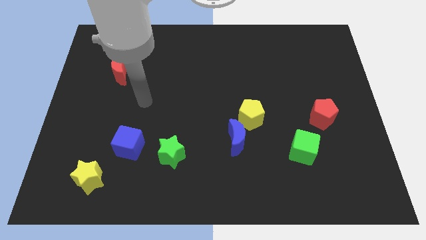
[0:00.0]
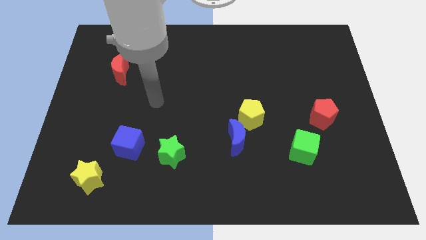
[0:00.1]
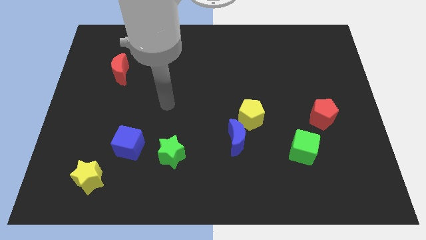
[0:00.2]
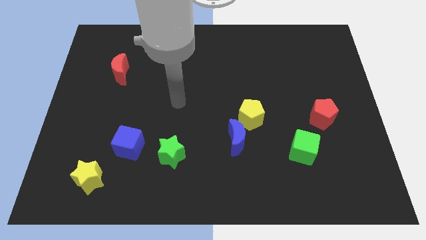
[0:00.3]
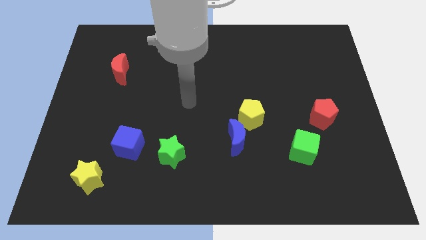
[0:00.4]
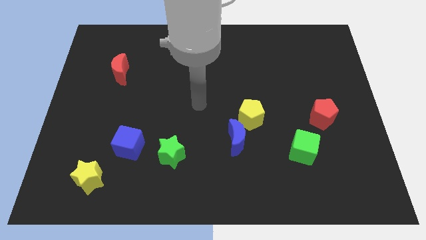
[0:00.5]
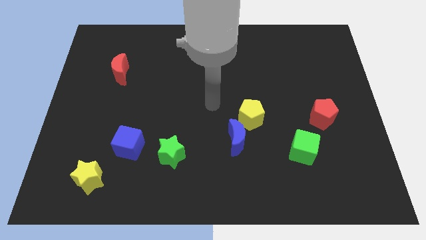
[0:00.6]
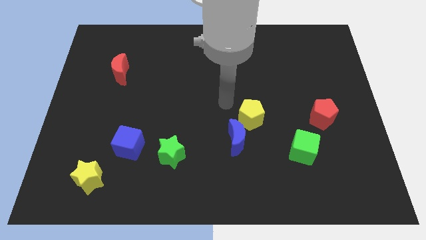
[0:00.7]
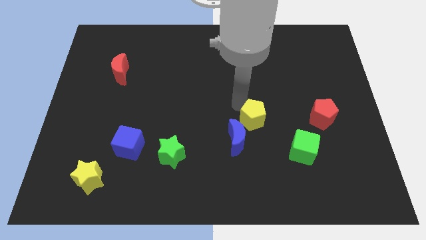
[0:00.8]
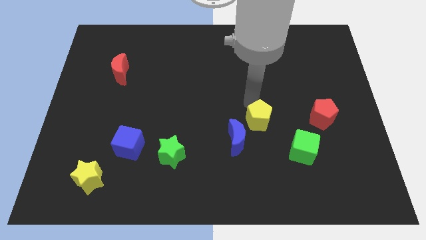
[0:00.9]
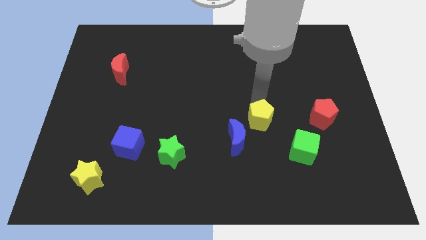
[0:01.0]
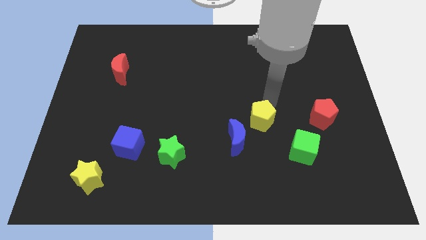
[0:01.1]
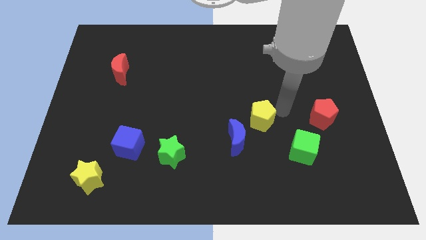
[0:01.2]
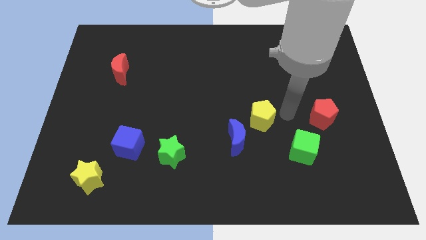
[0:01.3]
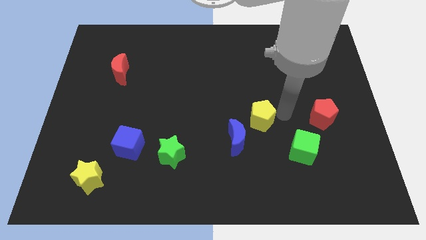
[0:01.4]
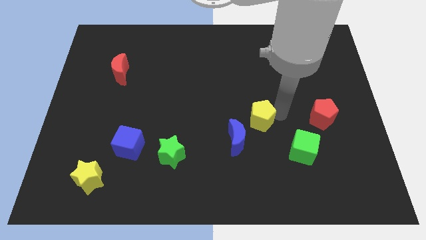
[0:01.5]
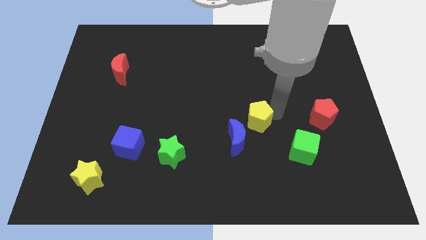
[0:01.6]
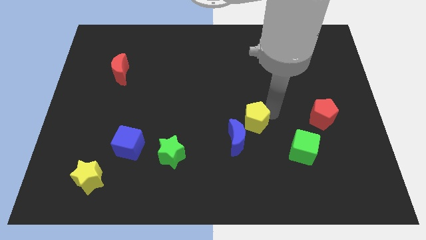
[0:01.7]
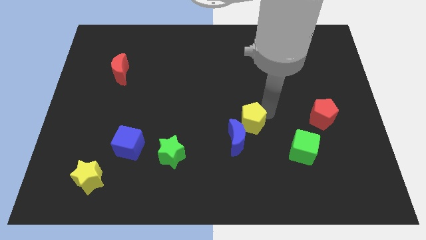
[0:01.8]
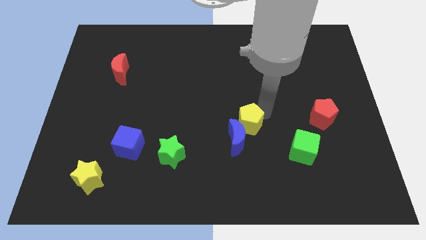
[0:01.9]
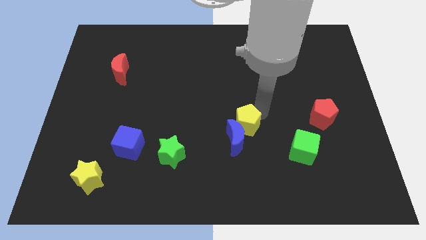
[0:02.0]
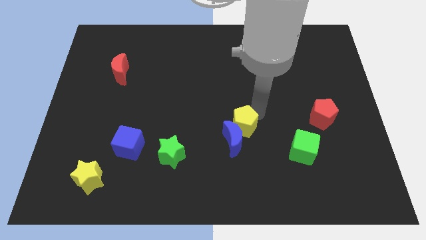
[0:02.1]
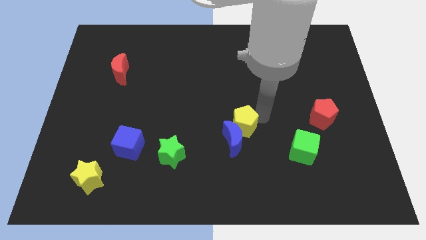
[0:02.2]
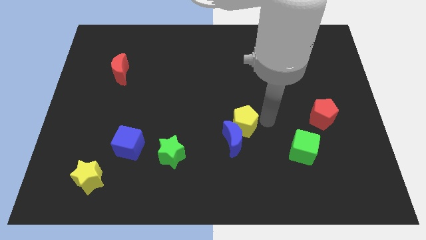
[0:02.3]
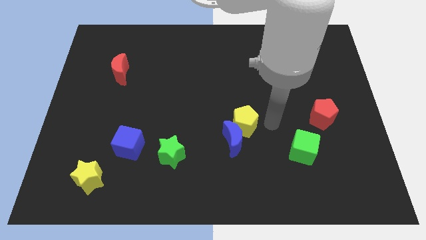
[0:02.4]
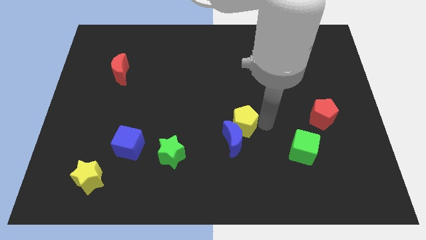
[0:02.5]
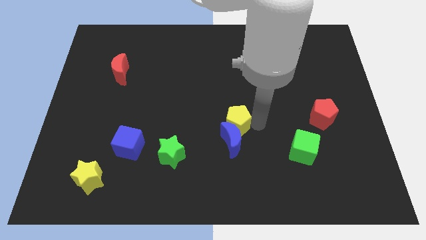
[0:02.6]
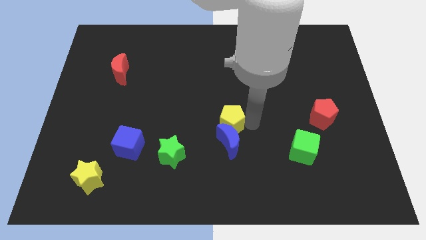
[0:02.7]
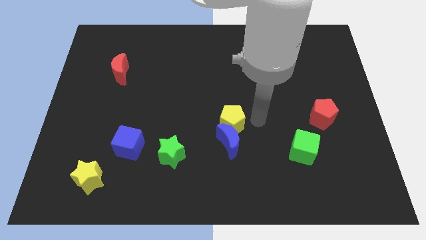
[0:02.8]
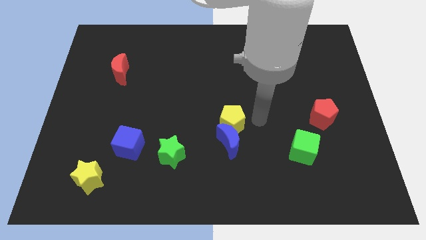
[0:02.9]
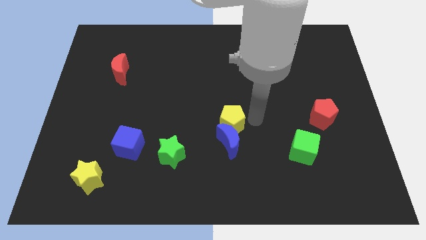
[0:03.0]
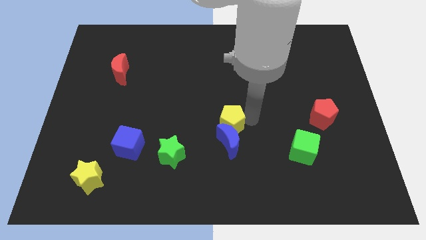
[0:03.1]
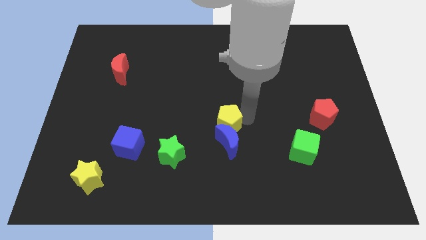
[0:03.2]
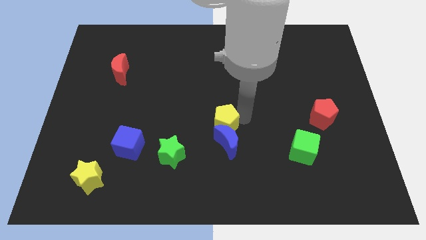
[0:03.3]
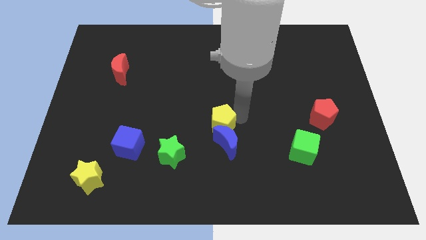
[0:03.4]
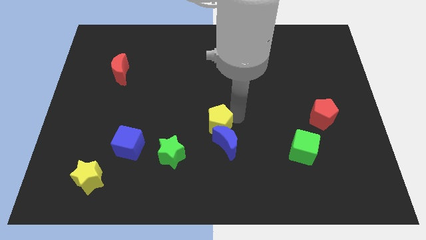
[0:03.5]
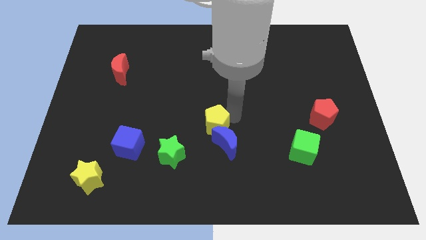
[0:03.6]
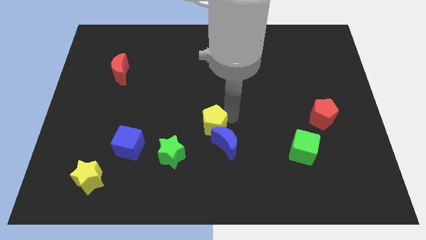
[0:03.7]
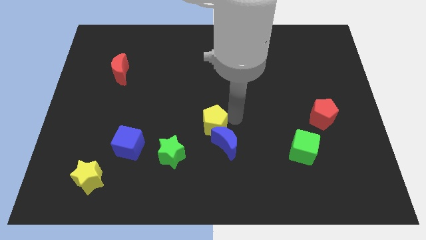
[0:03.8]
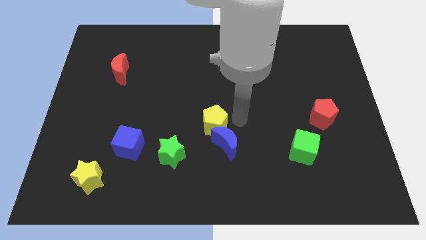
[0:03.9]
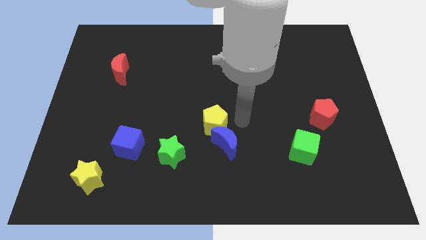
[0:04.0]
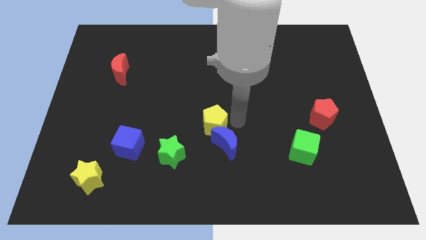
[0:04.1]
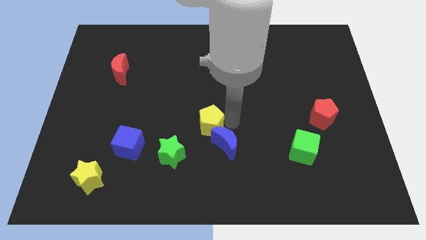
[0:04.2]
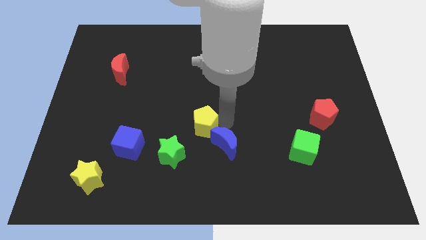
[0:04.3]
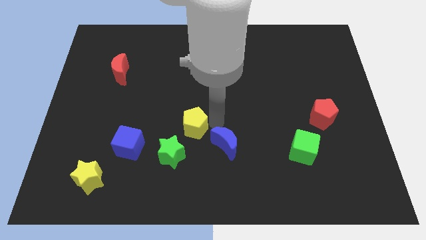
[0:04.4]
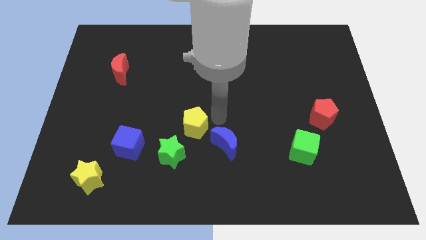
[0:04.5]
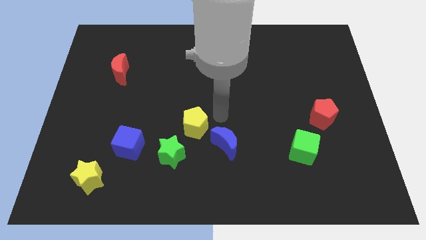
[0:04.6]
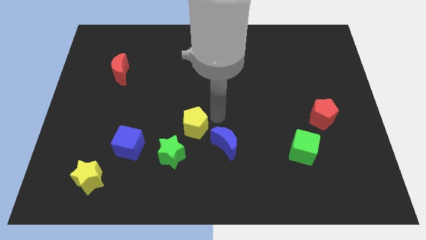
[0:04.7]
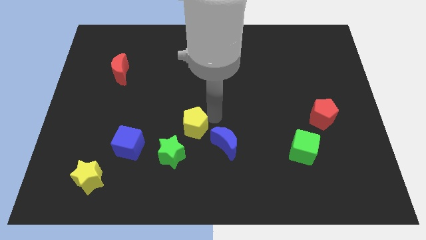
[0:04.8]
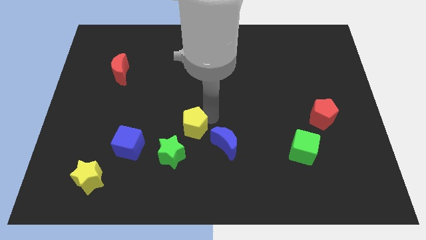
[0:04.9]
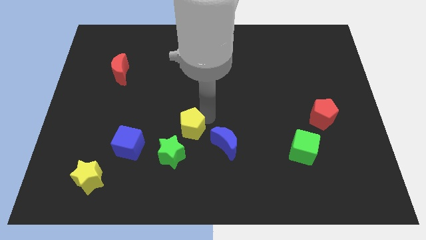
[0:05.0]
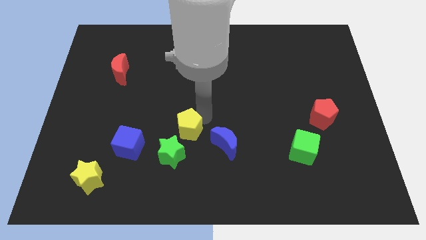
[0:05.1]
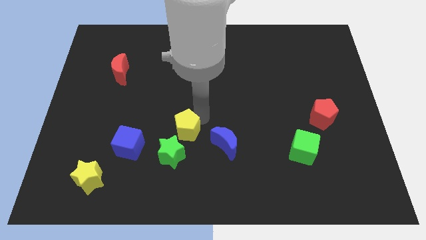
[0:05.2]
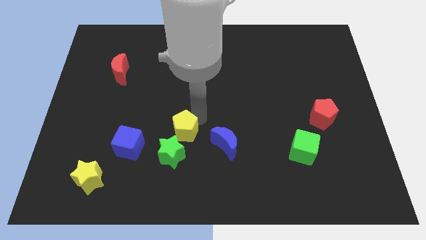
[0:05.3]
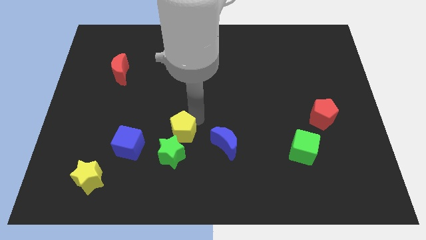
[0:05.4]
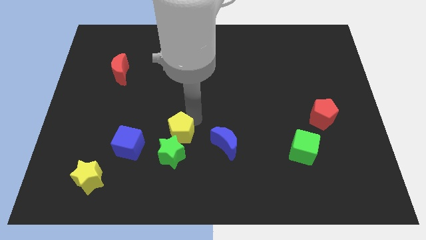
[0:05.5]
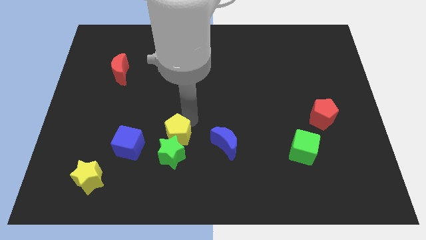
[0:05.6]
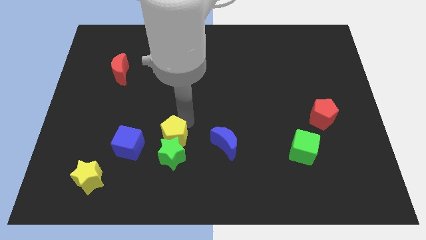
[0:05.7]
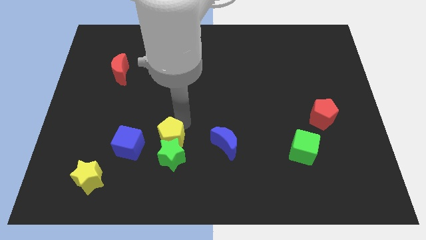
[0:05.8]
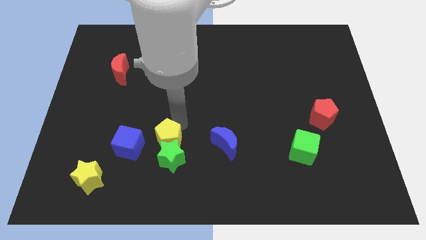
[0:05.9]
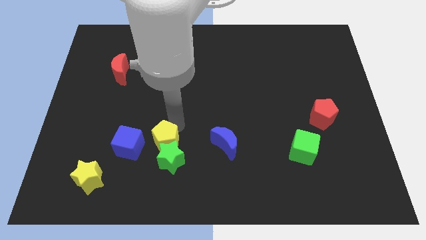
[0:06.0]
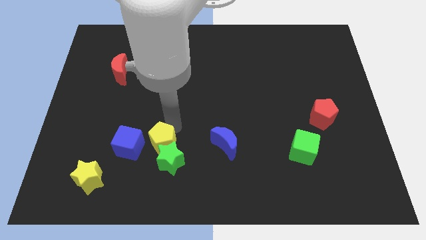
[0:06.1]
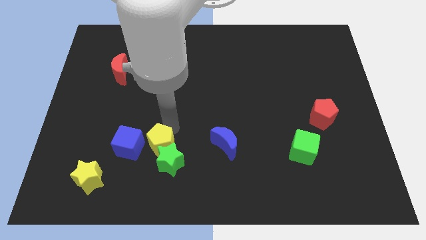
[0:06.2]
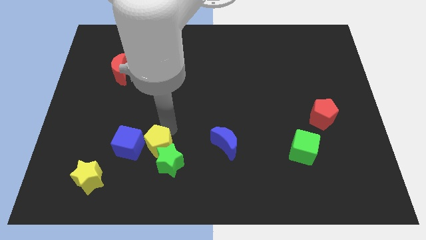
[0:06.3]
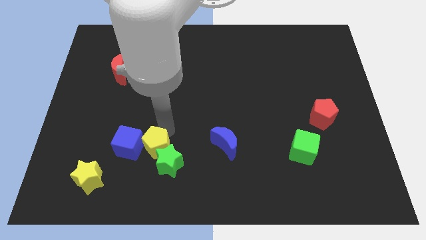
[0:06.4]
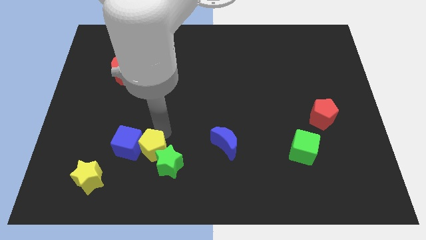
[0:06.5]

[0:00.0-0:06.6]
push the yellow pentagon to the left of the green star
